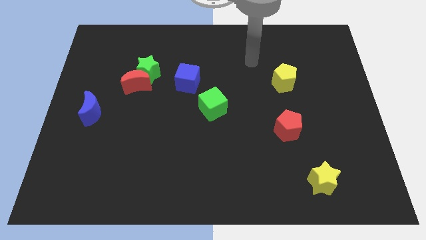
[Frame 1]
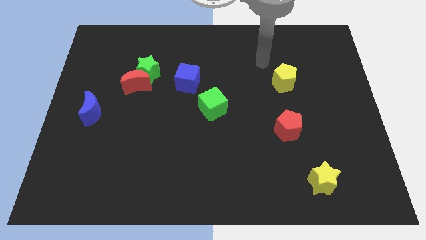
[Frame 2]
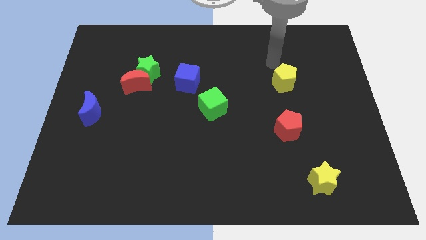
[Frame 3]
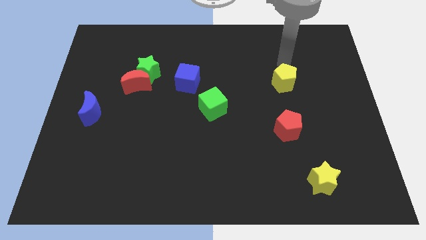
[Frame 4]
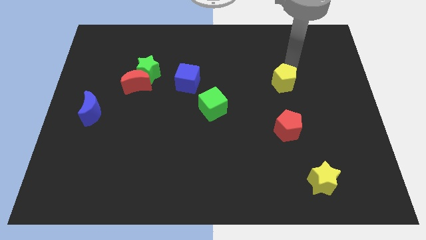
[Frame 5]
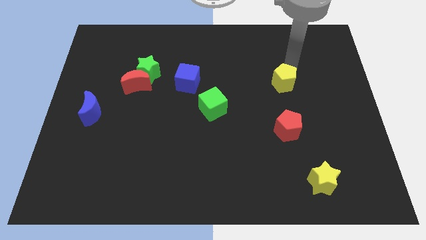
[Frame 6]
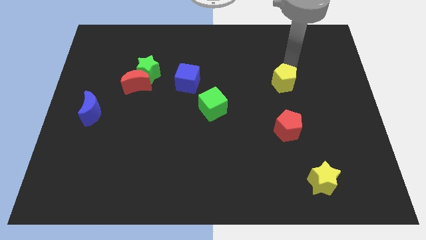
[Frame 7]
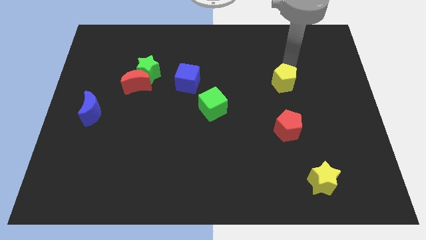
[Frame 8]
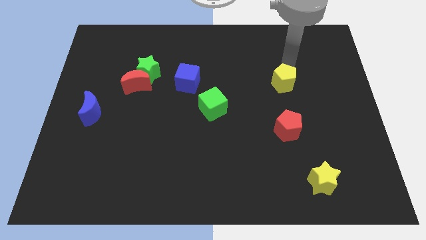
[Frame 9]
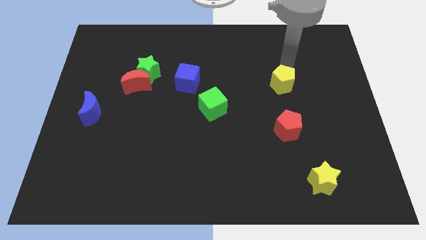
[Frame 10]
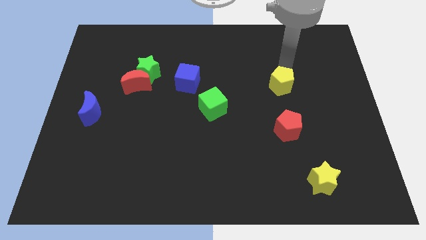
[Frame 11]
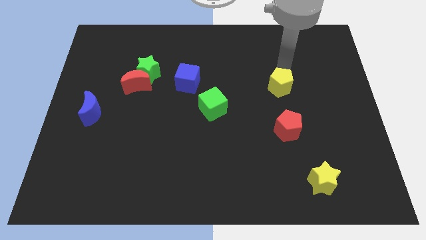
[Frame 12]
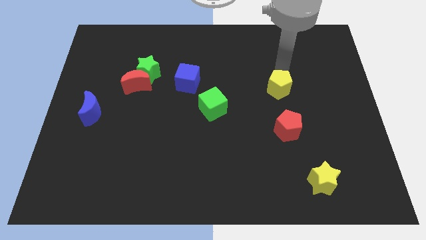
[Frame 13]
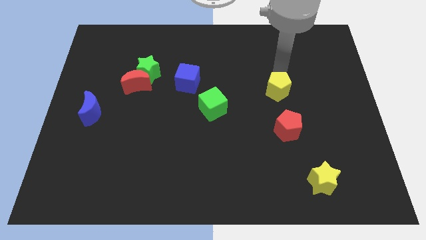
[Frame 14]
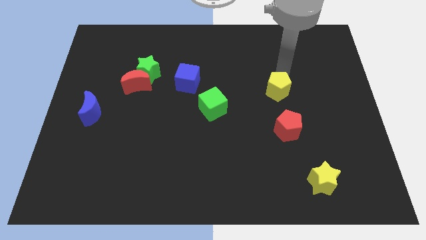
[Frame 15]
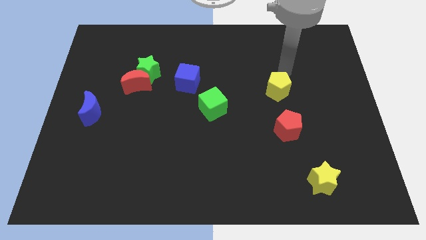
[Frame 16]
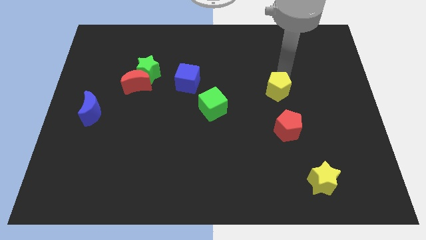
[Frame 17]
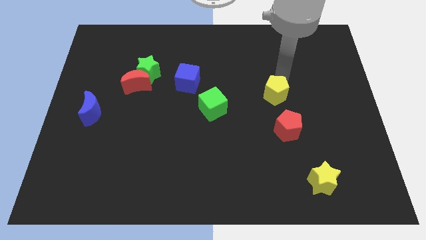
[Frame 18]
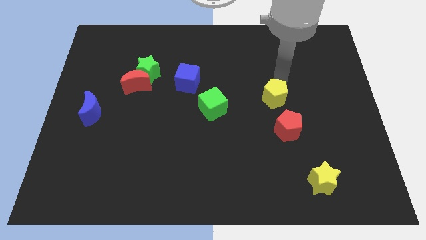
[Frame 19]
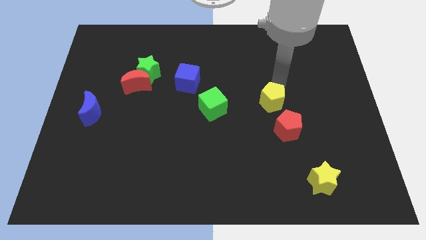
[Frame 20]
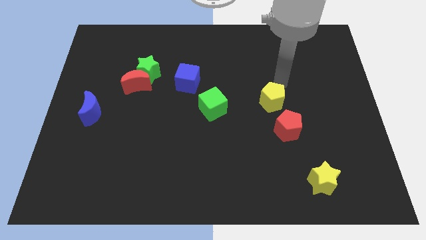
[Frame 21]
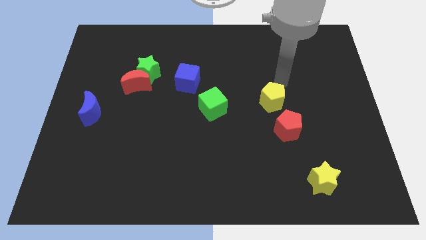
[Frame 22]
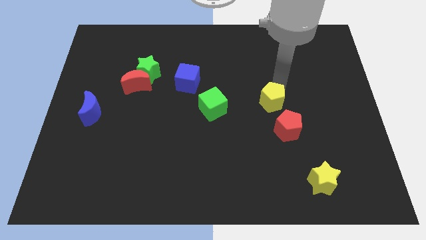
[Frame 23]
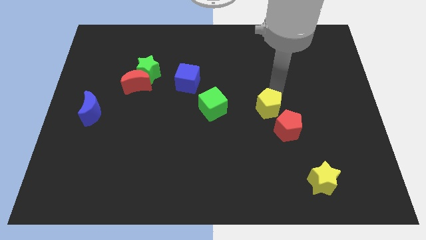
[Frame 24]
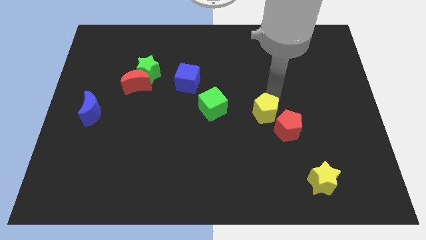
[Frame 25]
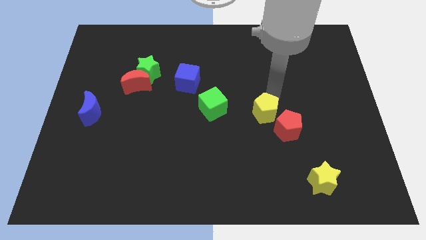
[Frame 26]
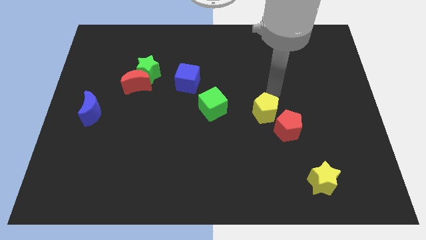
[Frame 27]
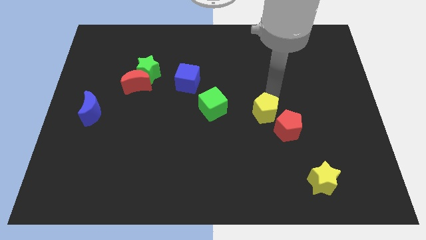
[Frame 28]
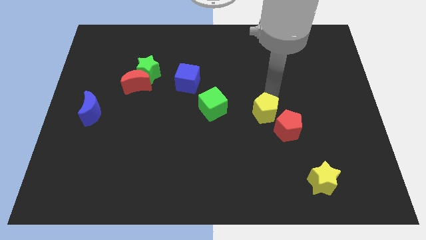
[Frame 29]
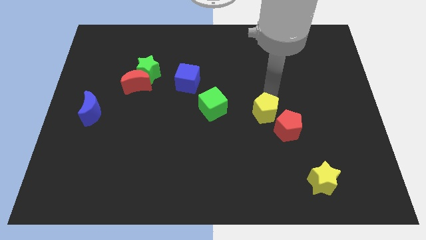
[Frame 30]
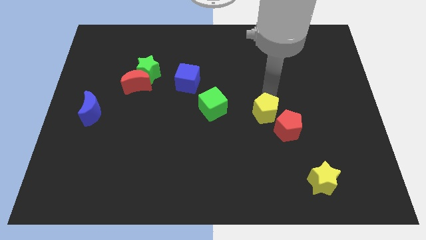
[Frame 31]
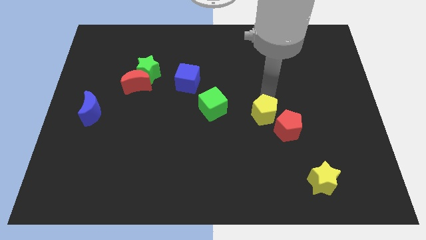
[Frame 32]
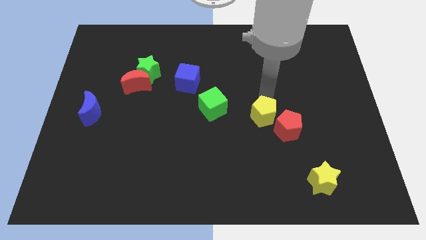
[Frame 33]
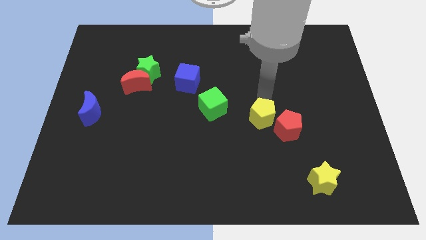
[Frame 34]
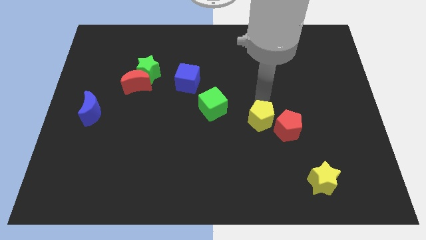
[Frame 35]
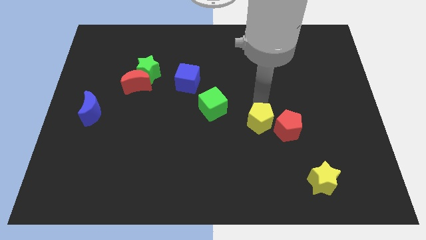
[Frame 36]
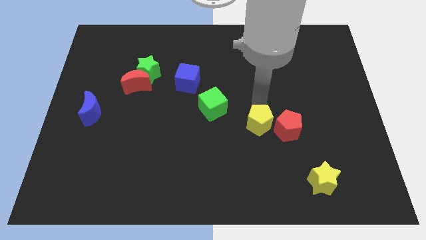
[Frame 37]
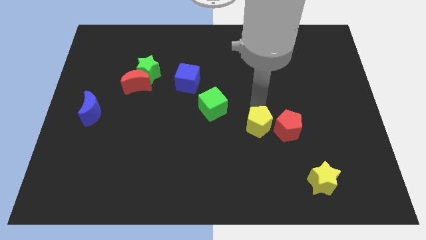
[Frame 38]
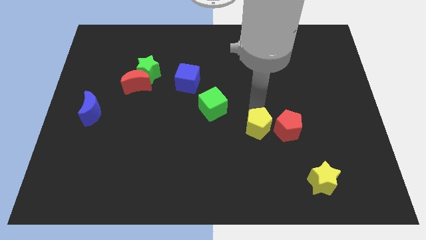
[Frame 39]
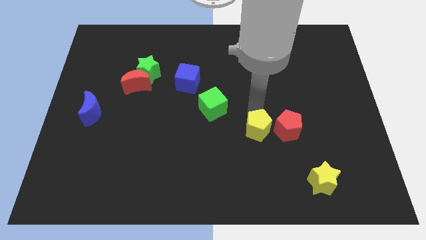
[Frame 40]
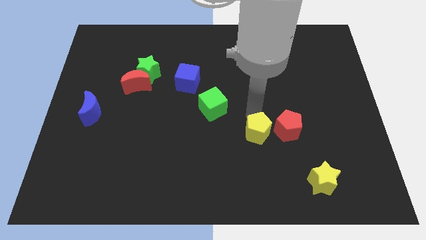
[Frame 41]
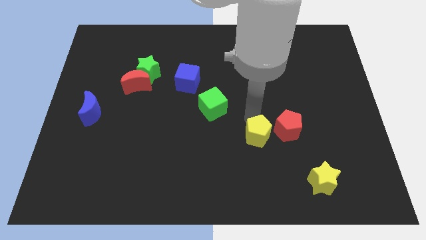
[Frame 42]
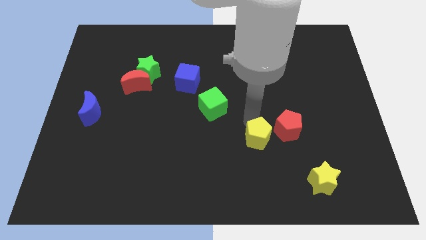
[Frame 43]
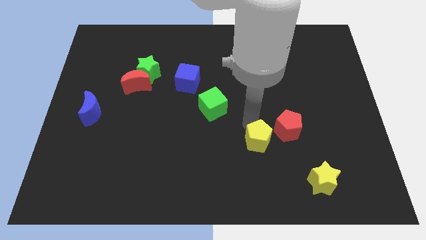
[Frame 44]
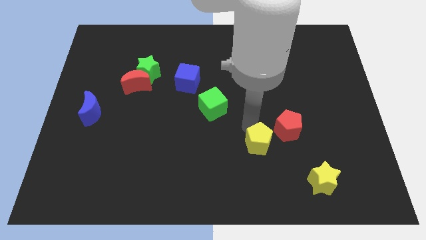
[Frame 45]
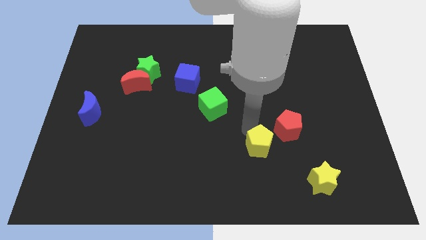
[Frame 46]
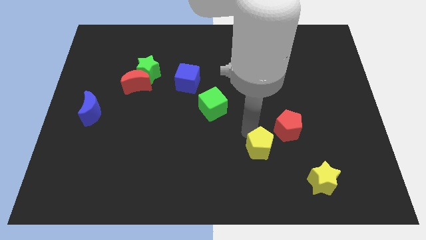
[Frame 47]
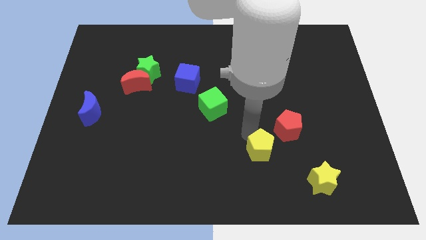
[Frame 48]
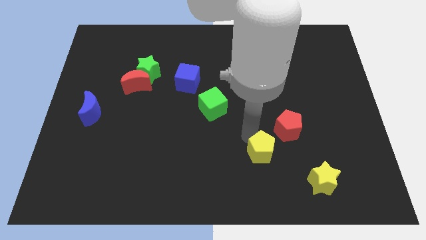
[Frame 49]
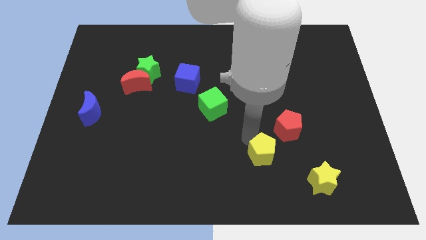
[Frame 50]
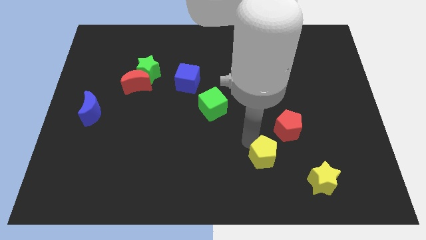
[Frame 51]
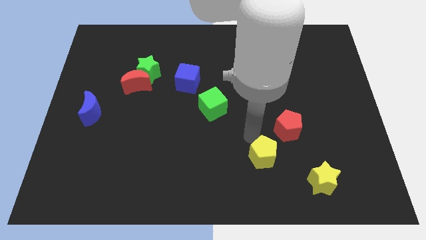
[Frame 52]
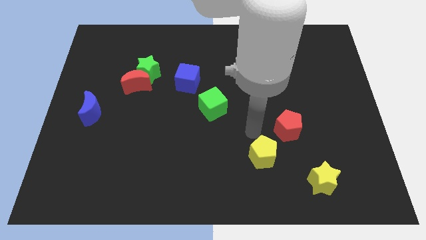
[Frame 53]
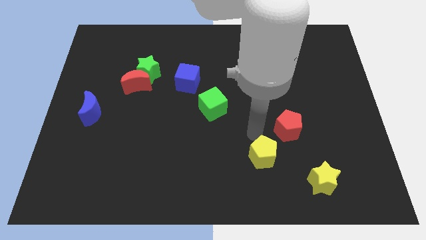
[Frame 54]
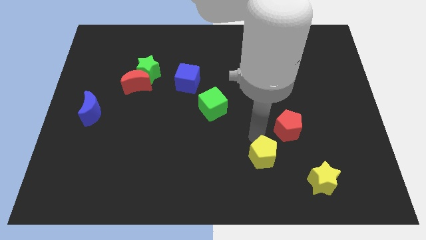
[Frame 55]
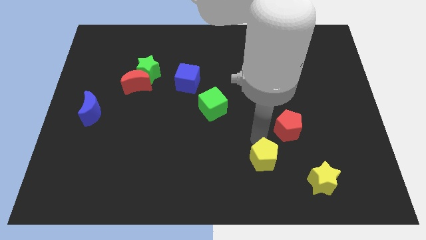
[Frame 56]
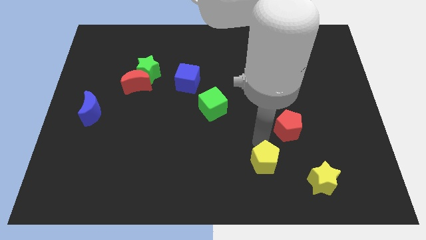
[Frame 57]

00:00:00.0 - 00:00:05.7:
push the yellow pentagon left of the yellow star

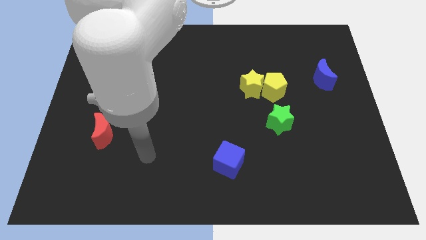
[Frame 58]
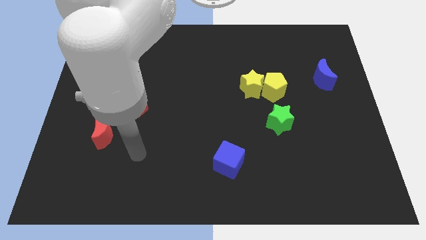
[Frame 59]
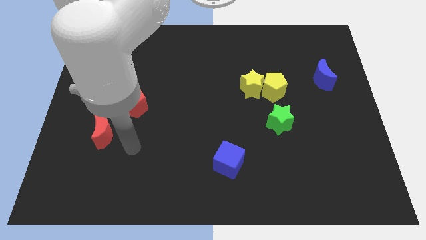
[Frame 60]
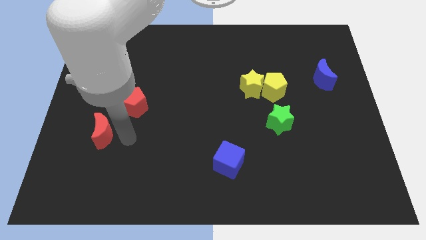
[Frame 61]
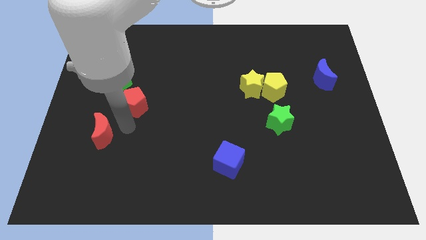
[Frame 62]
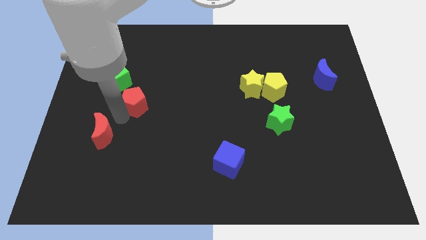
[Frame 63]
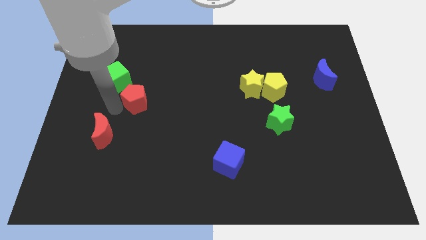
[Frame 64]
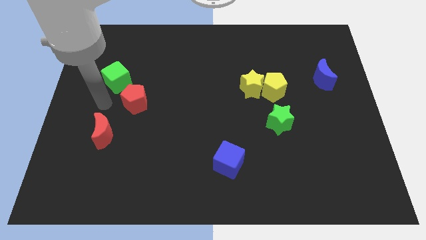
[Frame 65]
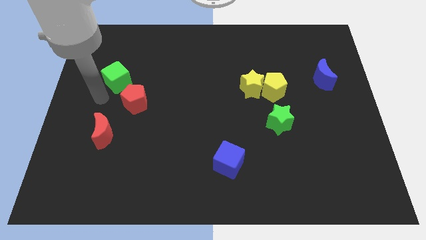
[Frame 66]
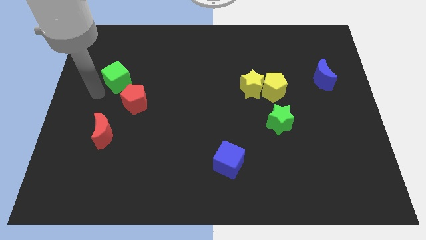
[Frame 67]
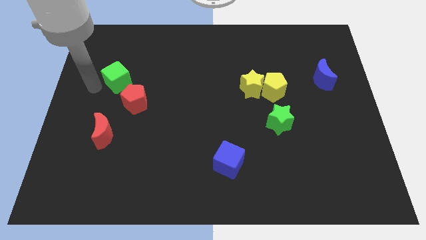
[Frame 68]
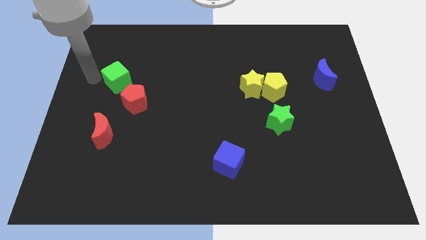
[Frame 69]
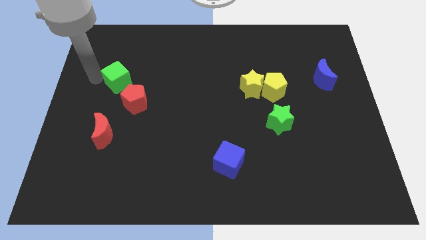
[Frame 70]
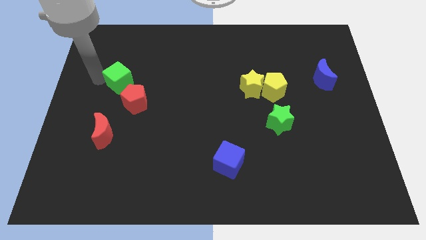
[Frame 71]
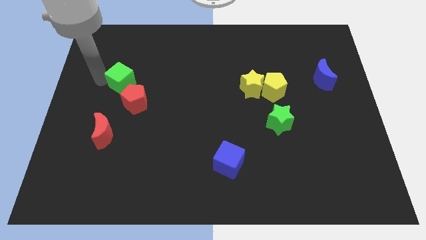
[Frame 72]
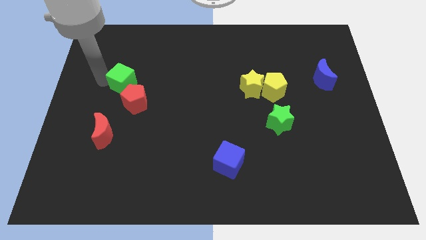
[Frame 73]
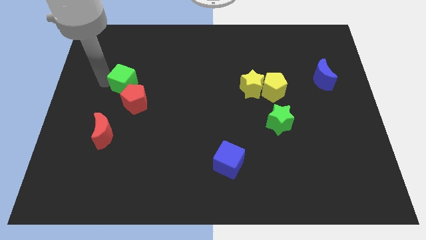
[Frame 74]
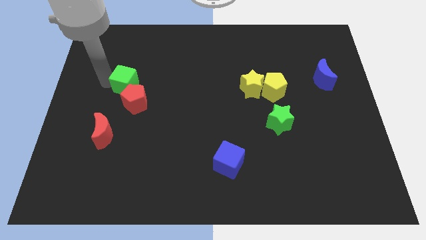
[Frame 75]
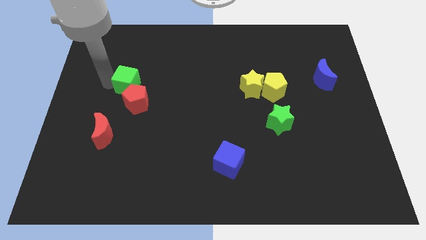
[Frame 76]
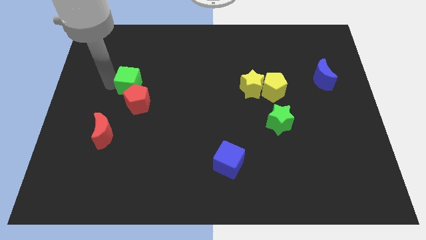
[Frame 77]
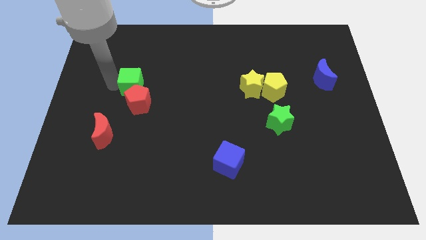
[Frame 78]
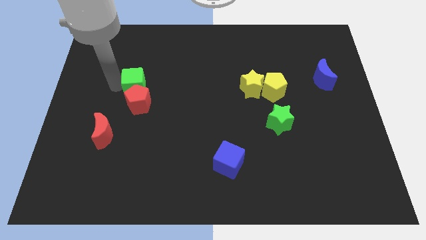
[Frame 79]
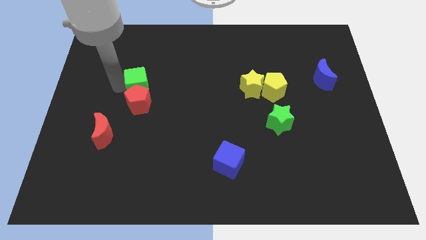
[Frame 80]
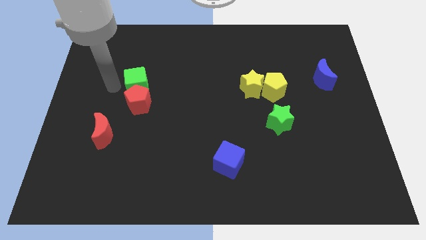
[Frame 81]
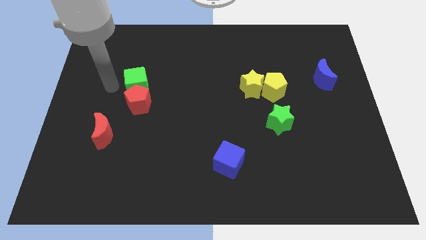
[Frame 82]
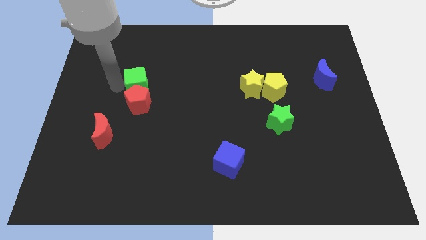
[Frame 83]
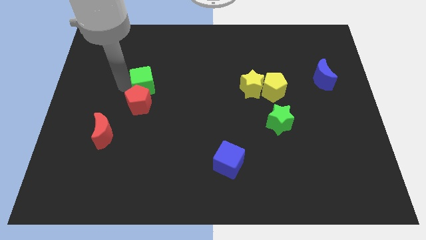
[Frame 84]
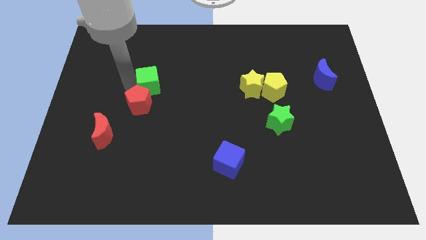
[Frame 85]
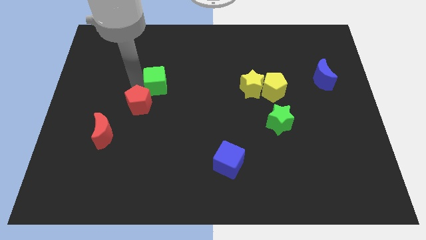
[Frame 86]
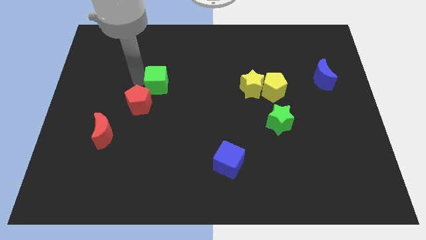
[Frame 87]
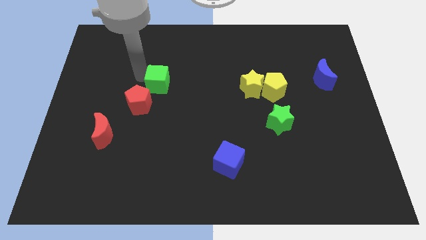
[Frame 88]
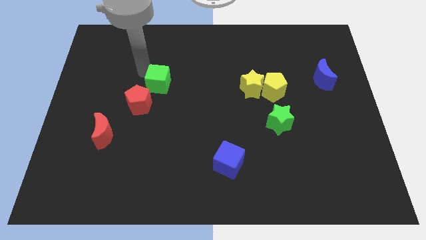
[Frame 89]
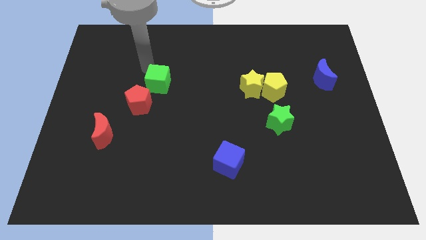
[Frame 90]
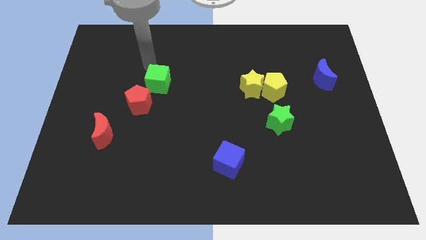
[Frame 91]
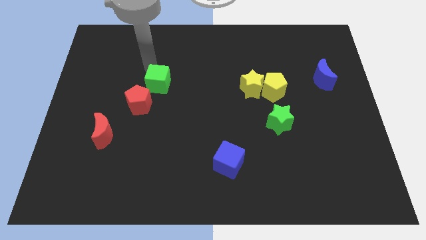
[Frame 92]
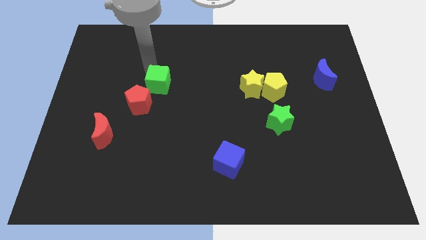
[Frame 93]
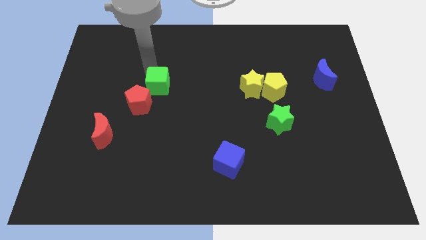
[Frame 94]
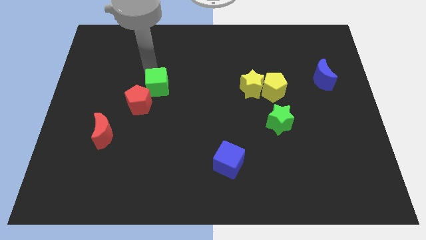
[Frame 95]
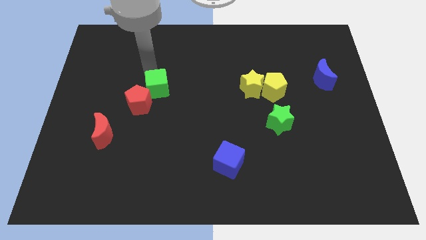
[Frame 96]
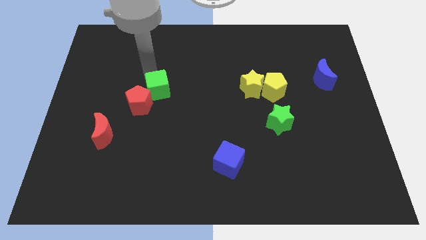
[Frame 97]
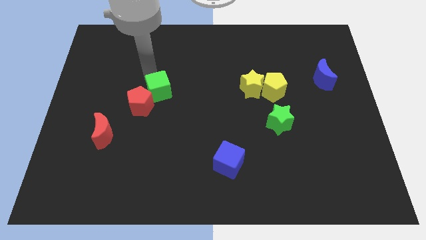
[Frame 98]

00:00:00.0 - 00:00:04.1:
push the green cube to the right side of the red pentagon
